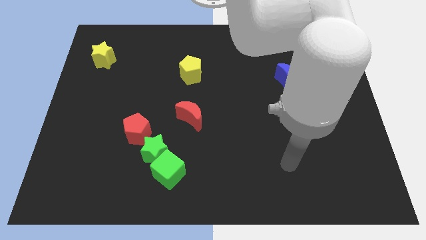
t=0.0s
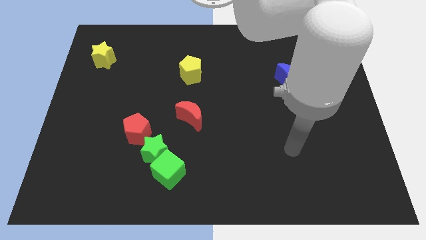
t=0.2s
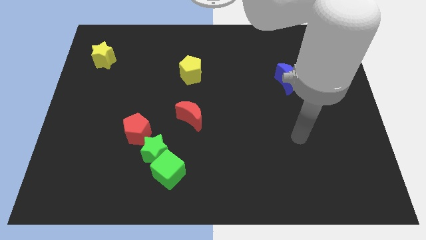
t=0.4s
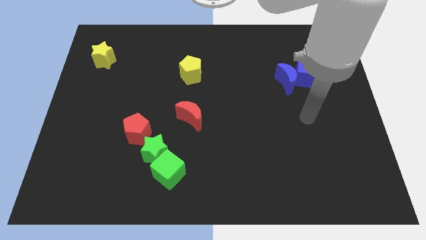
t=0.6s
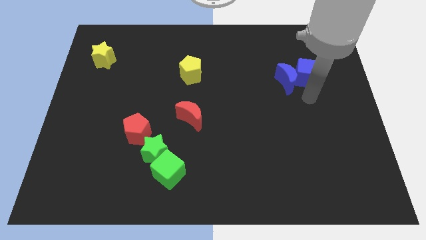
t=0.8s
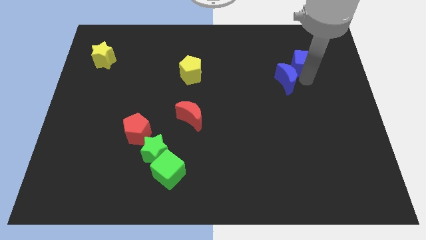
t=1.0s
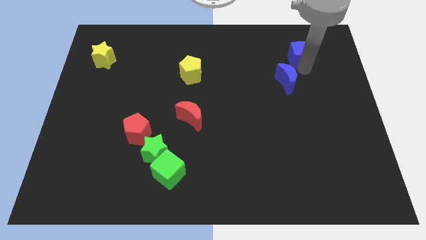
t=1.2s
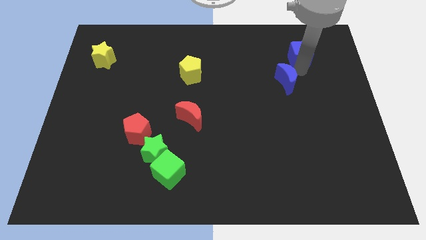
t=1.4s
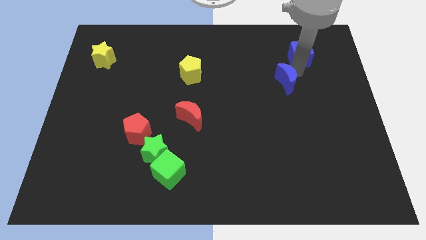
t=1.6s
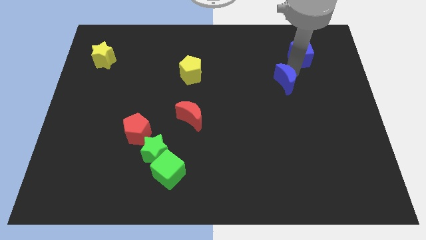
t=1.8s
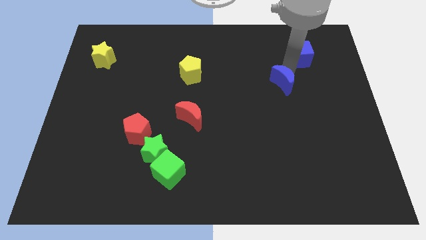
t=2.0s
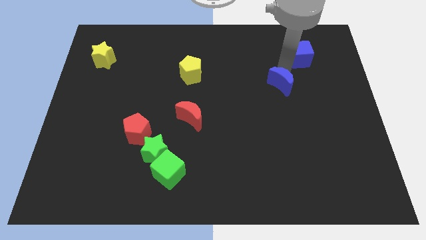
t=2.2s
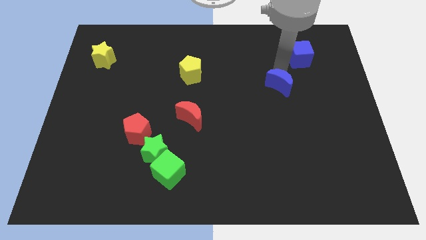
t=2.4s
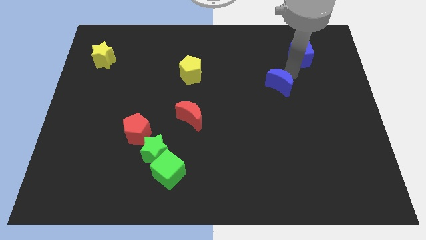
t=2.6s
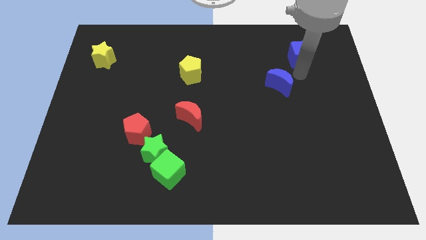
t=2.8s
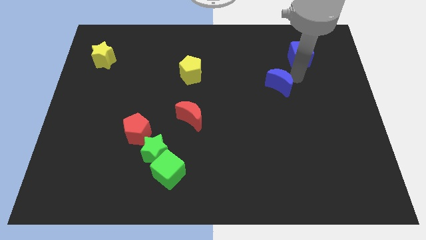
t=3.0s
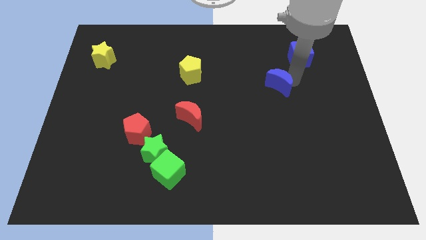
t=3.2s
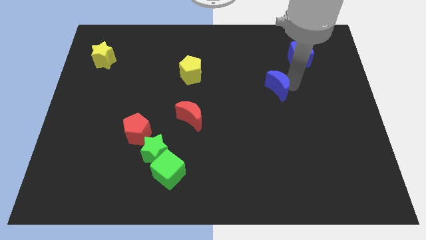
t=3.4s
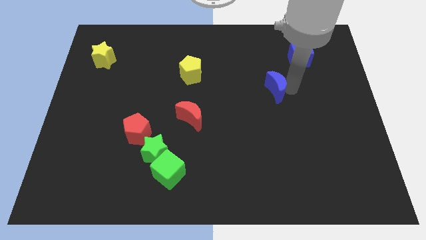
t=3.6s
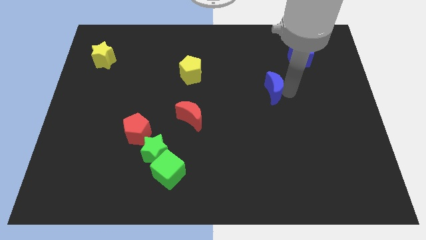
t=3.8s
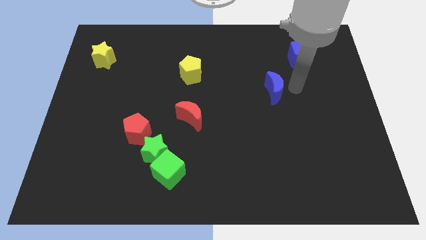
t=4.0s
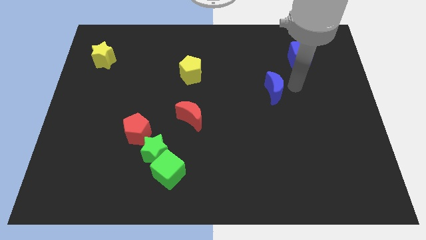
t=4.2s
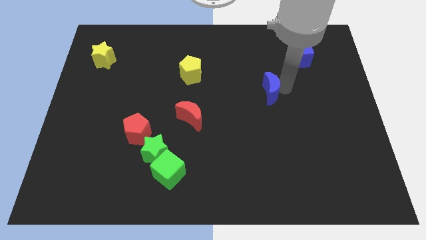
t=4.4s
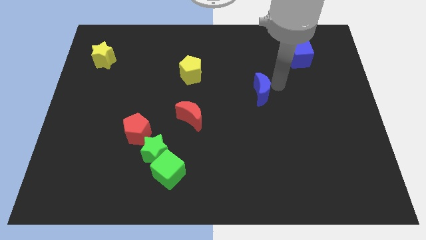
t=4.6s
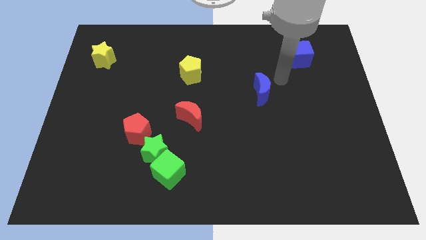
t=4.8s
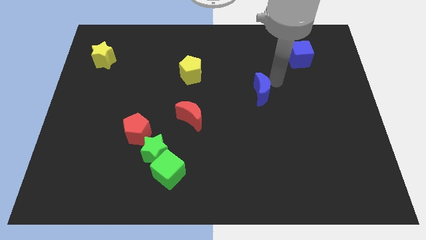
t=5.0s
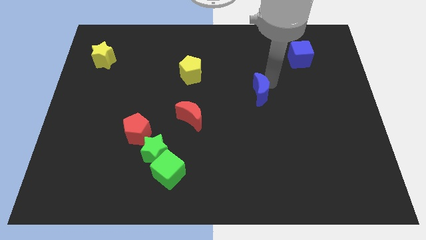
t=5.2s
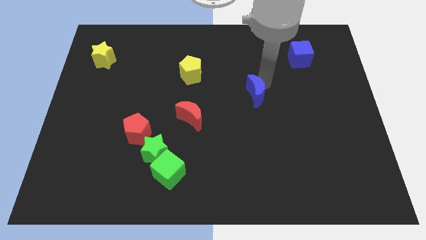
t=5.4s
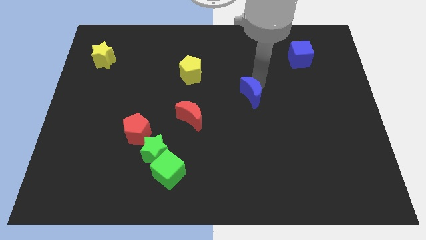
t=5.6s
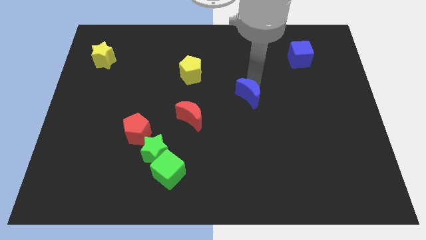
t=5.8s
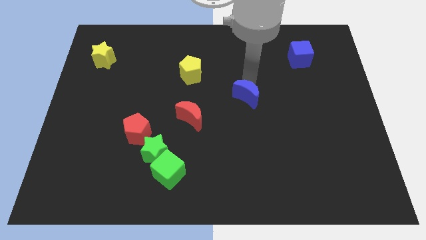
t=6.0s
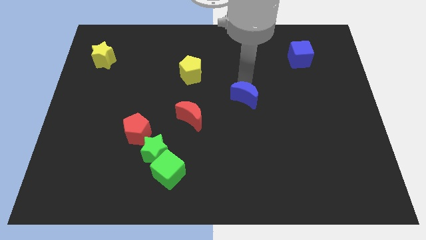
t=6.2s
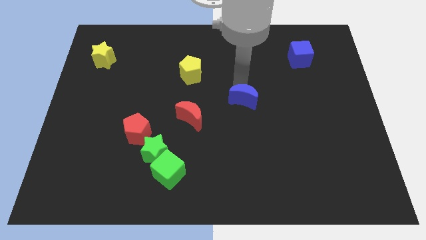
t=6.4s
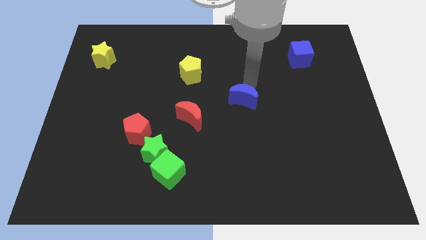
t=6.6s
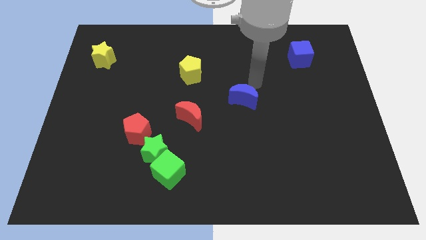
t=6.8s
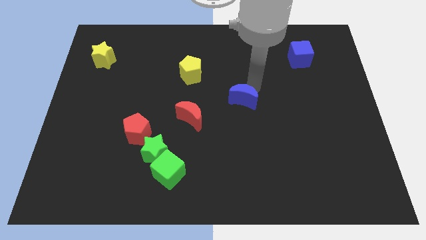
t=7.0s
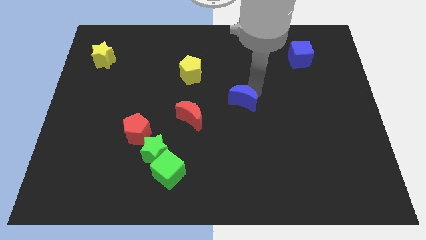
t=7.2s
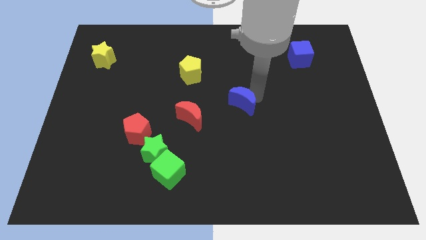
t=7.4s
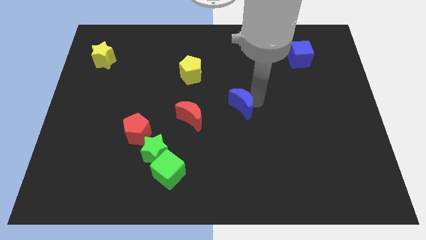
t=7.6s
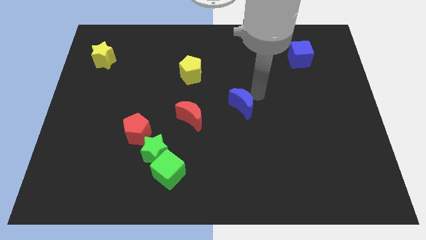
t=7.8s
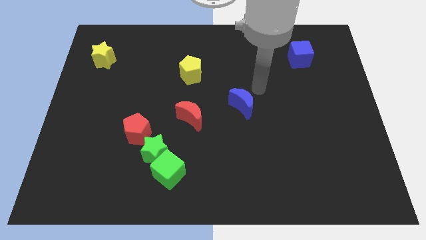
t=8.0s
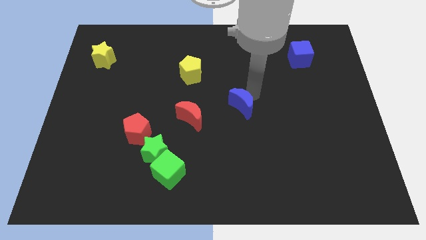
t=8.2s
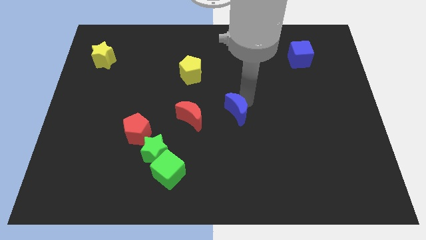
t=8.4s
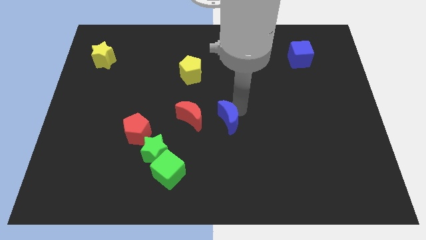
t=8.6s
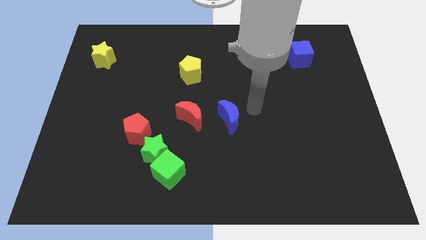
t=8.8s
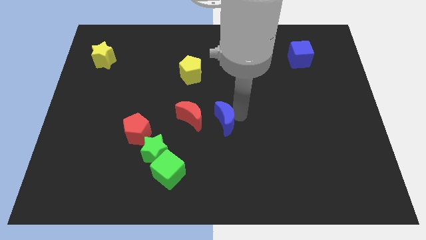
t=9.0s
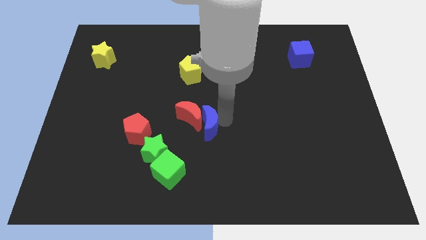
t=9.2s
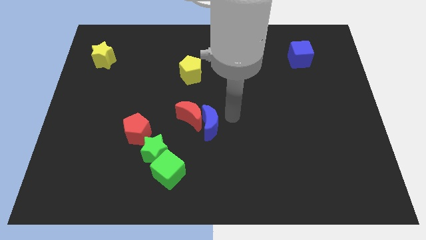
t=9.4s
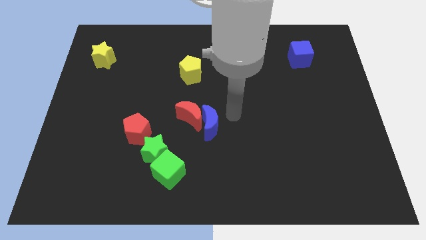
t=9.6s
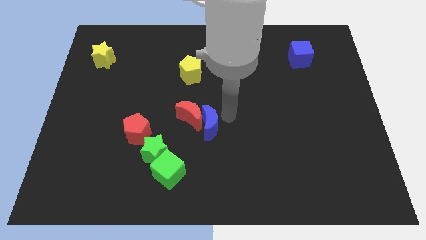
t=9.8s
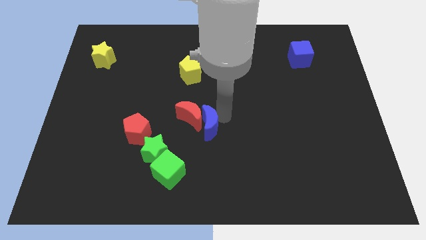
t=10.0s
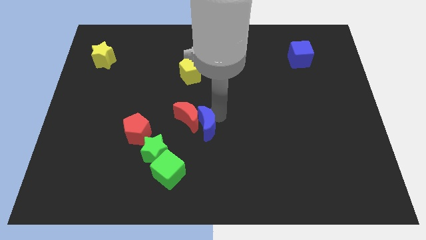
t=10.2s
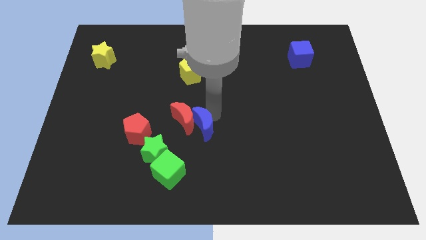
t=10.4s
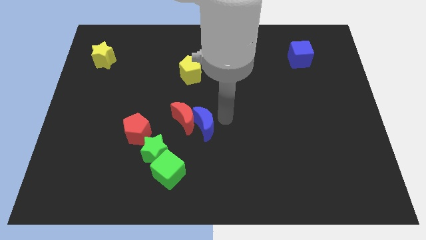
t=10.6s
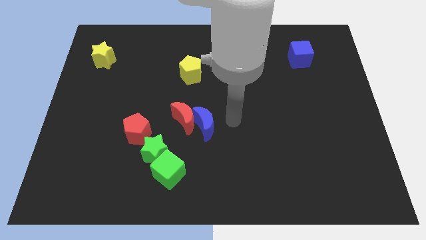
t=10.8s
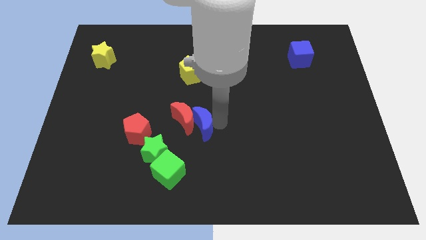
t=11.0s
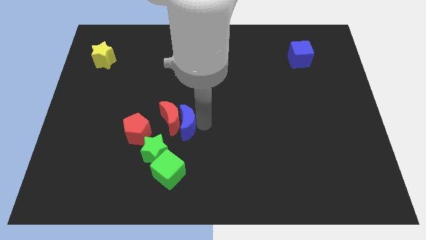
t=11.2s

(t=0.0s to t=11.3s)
put the blue moon to the top of the green cube

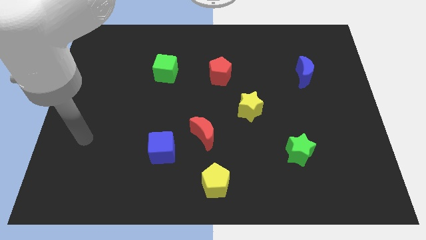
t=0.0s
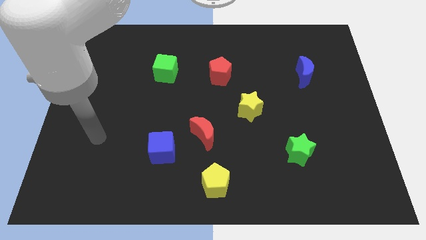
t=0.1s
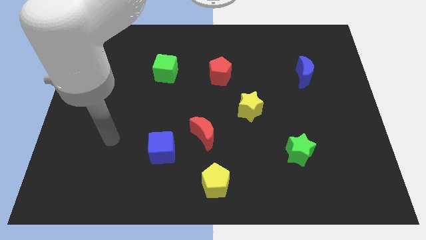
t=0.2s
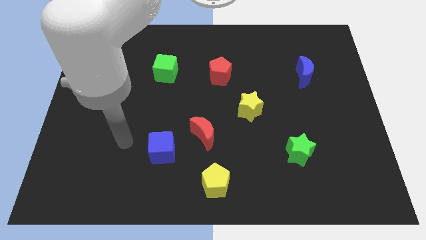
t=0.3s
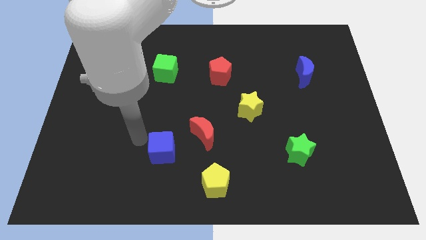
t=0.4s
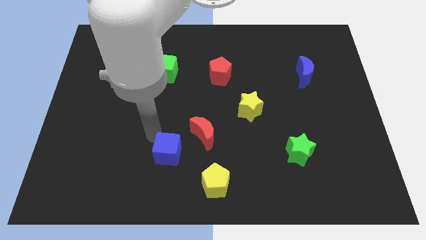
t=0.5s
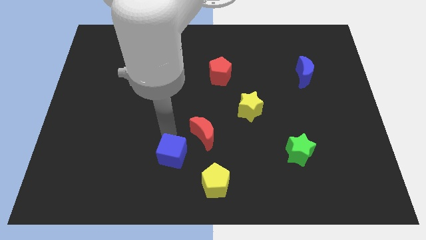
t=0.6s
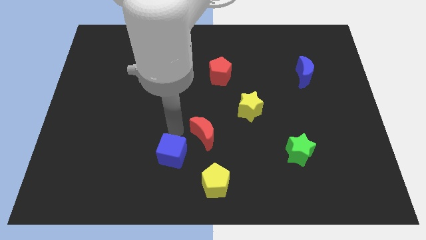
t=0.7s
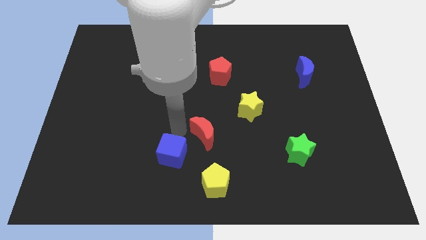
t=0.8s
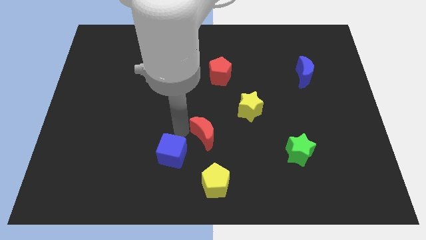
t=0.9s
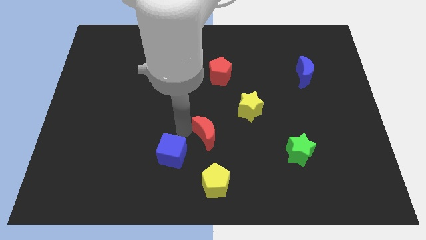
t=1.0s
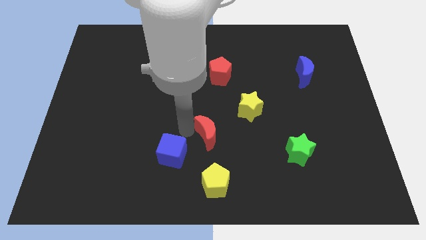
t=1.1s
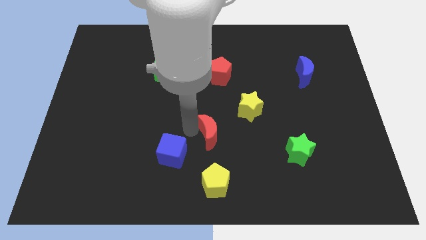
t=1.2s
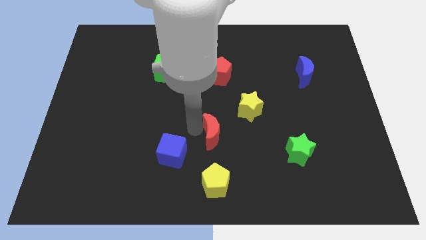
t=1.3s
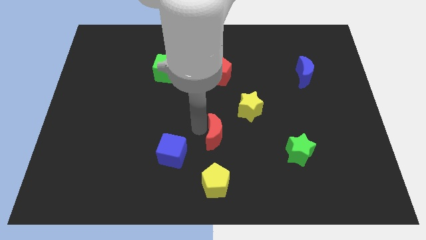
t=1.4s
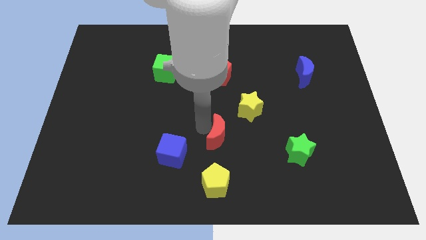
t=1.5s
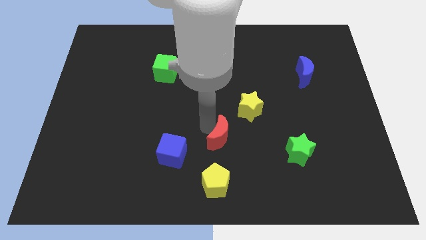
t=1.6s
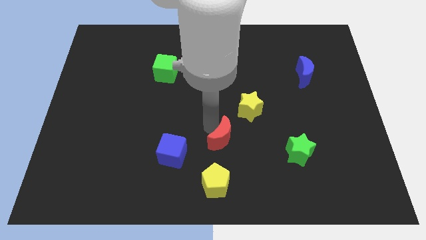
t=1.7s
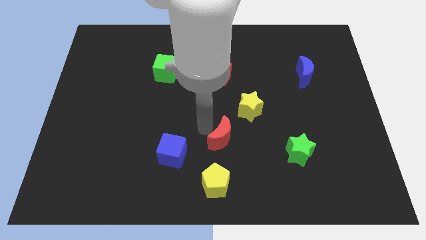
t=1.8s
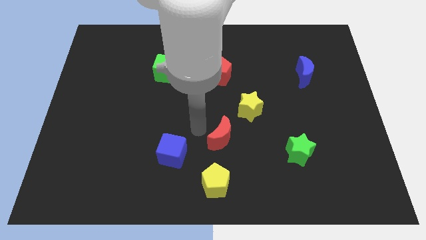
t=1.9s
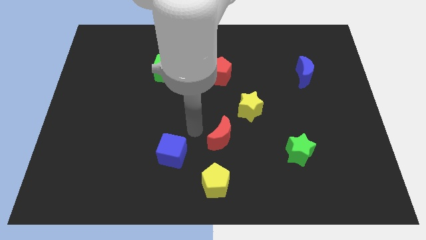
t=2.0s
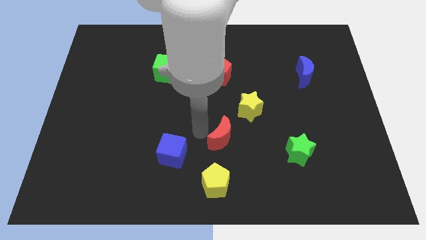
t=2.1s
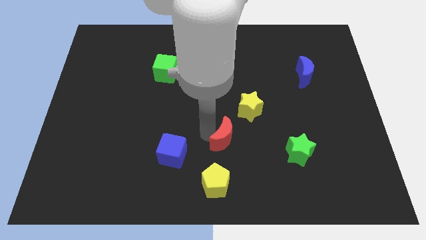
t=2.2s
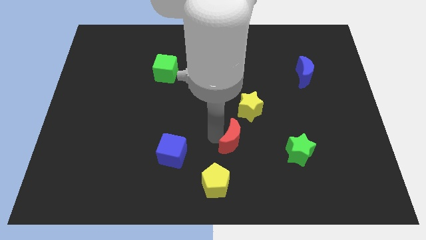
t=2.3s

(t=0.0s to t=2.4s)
put the red moon to the bottom side of the yellow star
